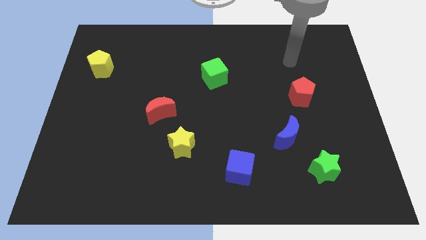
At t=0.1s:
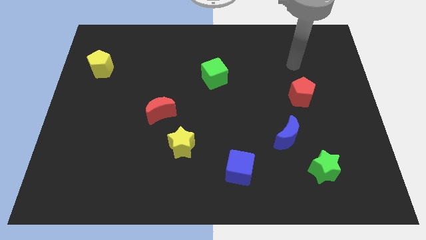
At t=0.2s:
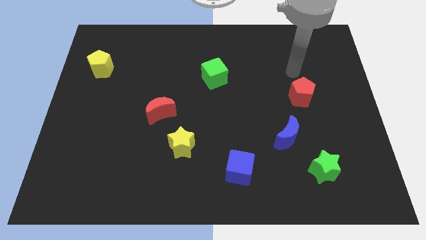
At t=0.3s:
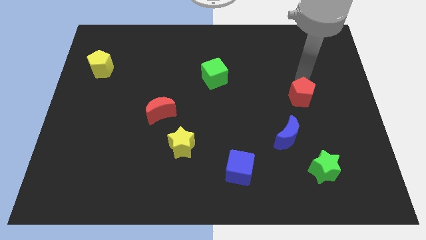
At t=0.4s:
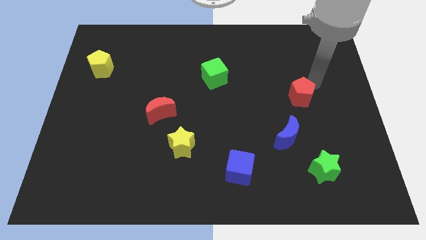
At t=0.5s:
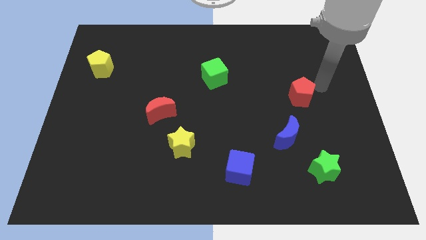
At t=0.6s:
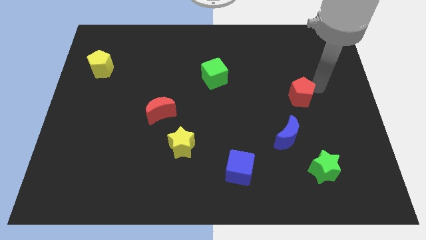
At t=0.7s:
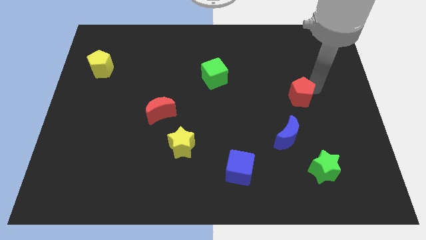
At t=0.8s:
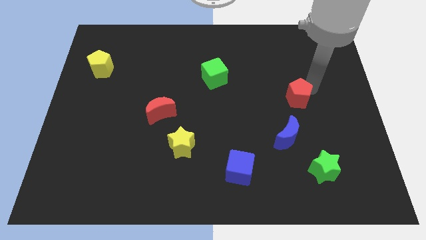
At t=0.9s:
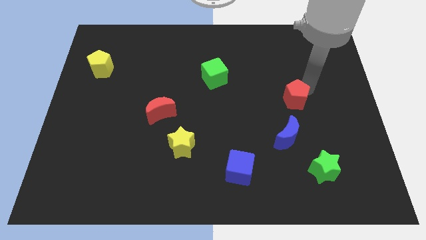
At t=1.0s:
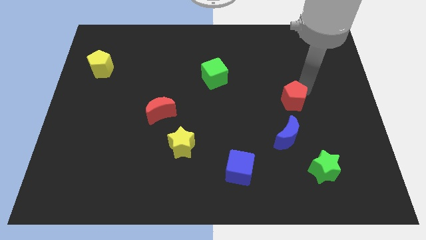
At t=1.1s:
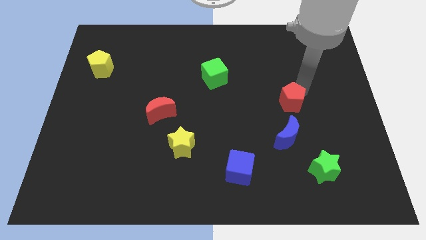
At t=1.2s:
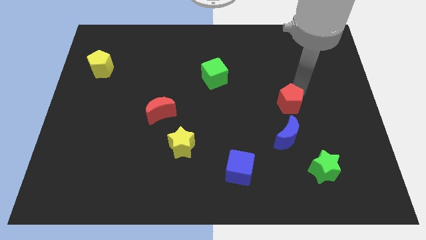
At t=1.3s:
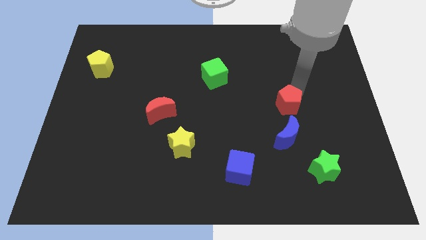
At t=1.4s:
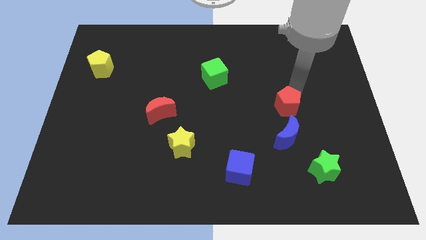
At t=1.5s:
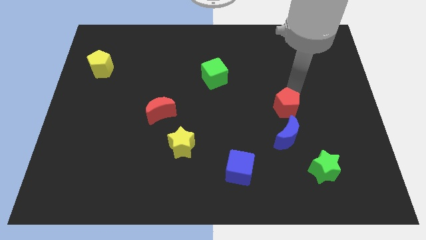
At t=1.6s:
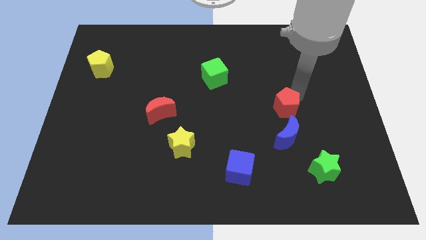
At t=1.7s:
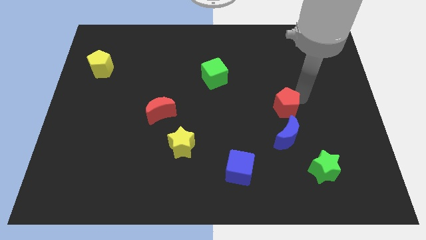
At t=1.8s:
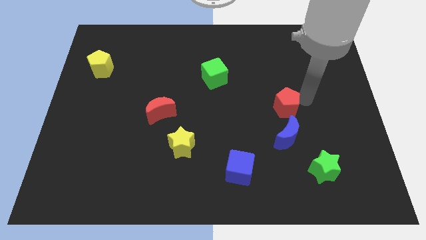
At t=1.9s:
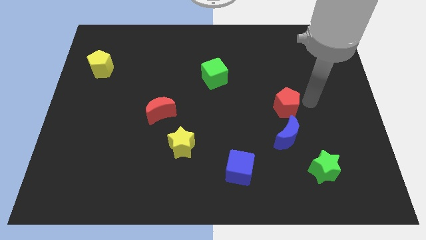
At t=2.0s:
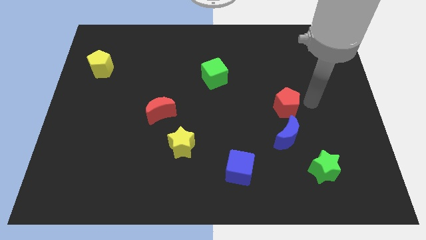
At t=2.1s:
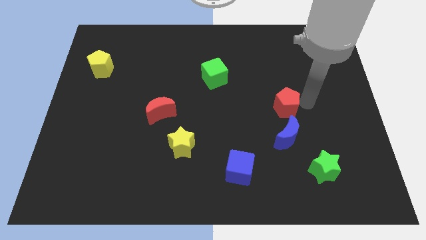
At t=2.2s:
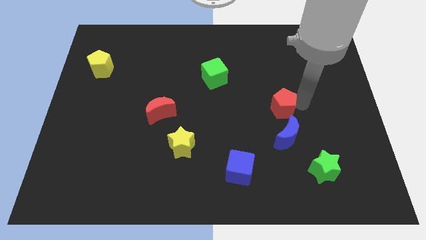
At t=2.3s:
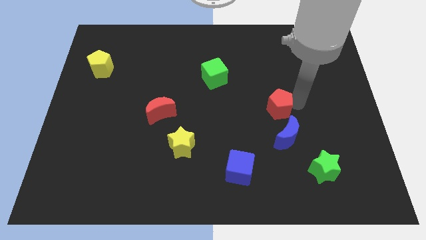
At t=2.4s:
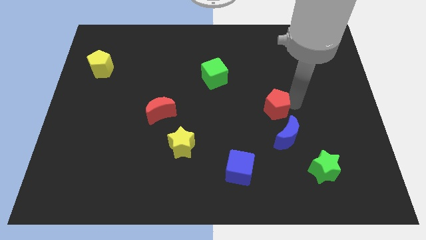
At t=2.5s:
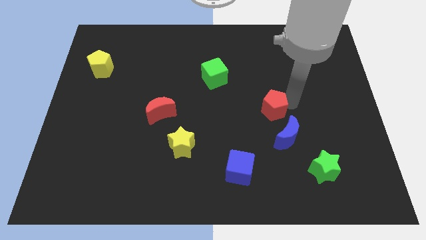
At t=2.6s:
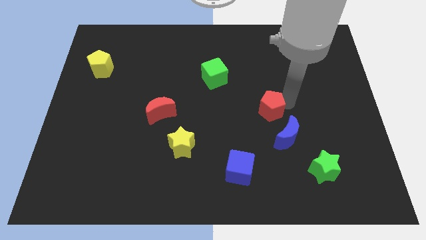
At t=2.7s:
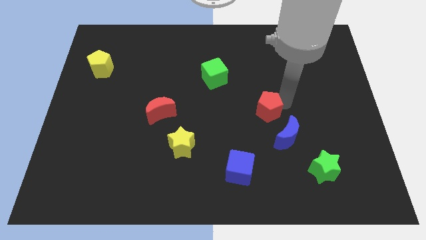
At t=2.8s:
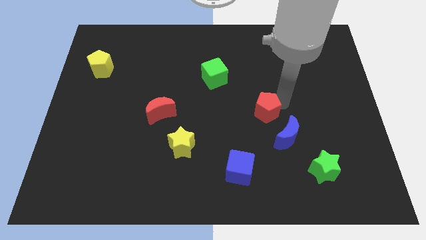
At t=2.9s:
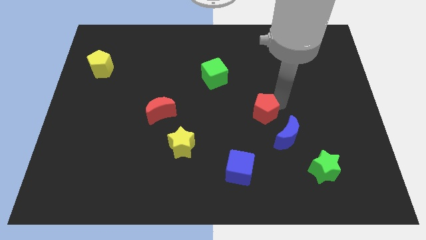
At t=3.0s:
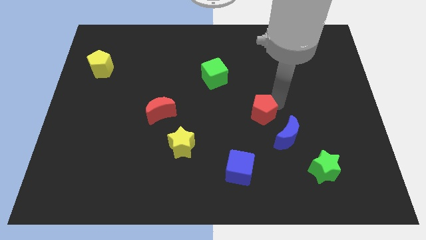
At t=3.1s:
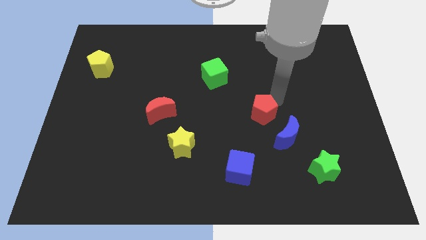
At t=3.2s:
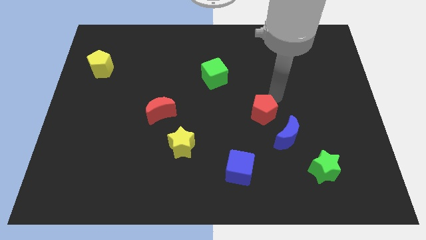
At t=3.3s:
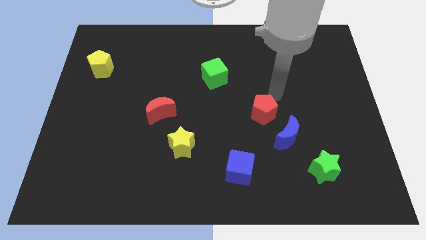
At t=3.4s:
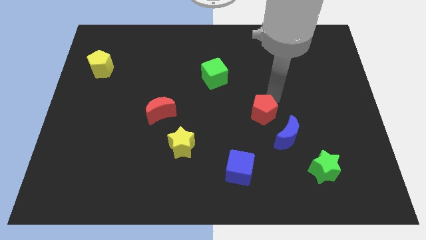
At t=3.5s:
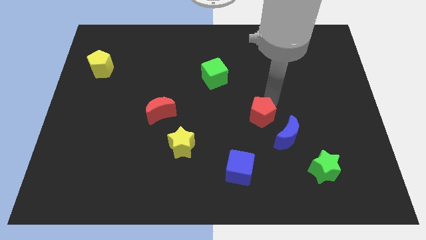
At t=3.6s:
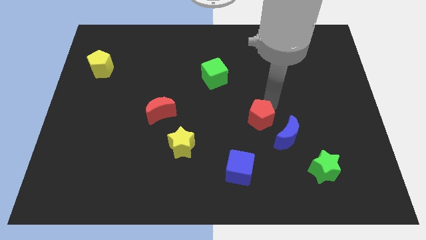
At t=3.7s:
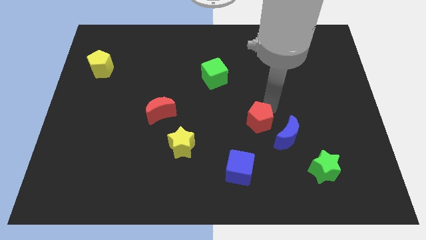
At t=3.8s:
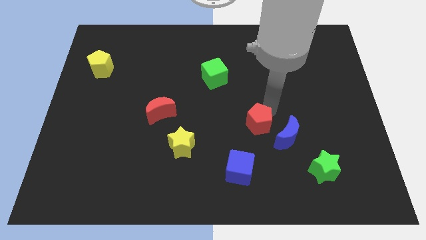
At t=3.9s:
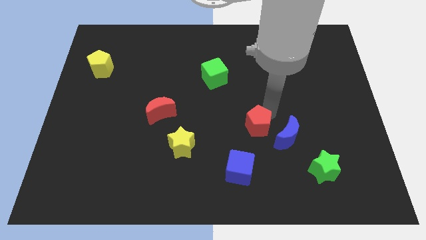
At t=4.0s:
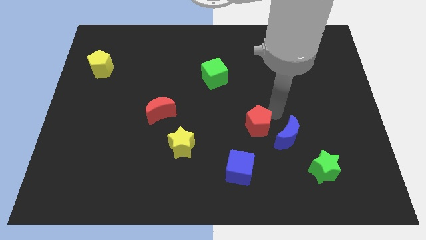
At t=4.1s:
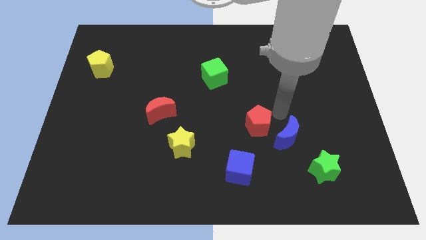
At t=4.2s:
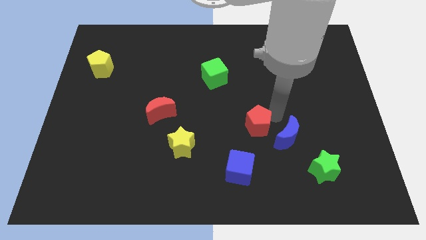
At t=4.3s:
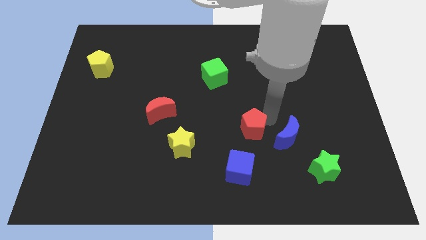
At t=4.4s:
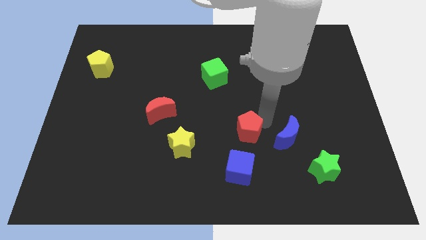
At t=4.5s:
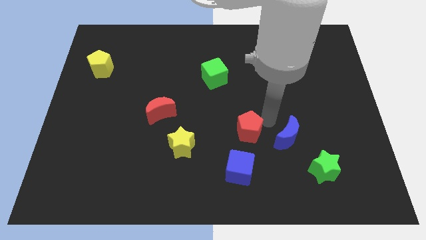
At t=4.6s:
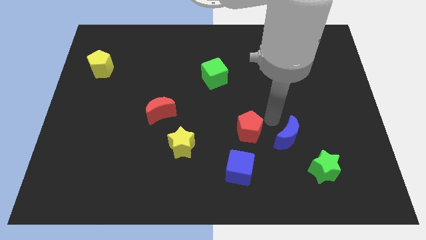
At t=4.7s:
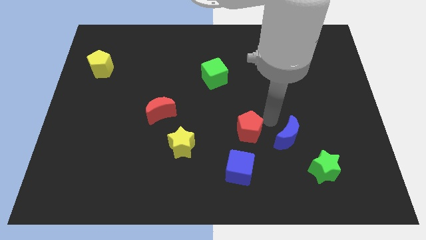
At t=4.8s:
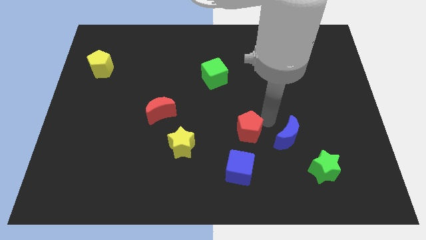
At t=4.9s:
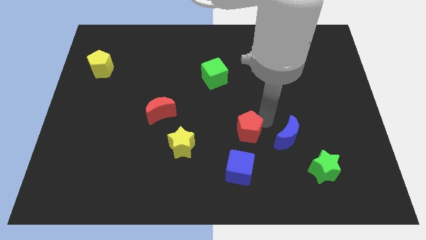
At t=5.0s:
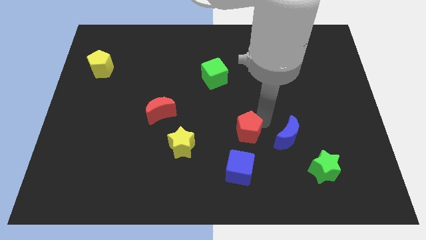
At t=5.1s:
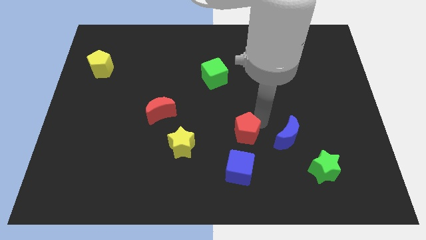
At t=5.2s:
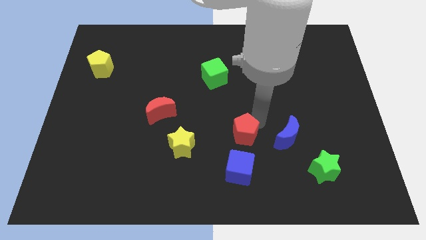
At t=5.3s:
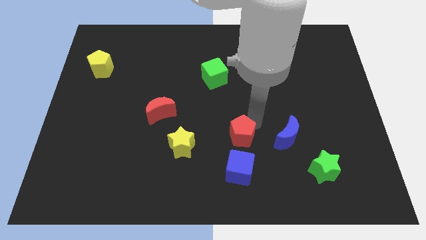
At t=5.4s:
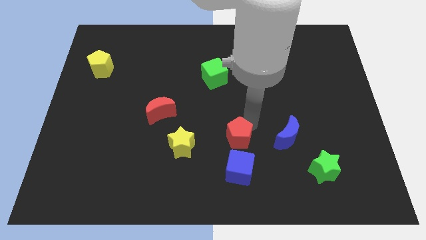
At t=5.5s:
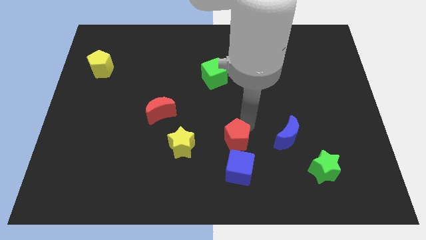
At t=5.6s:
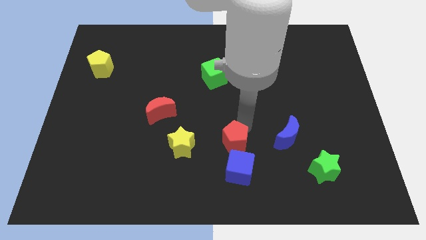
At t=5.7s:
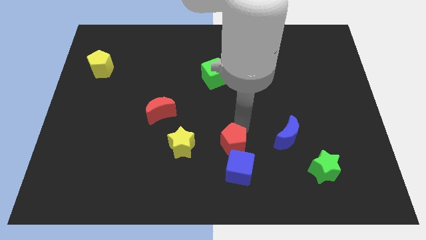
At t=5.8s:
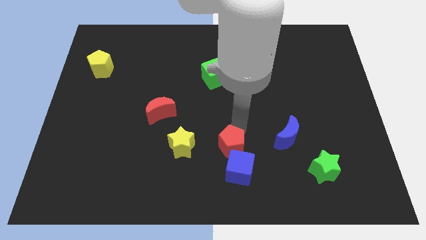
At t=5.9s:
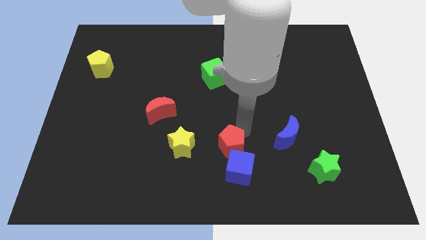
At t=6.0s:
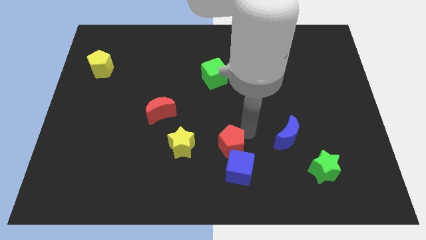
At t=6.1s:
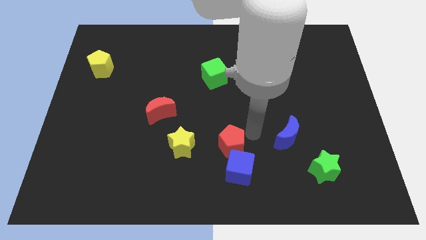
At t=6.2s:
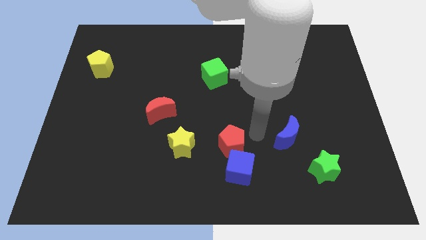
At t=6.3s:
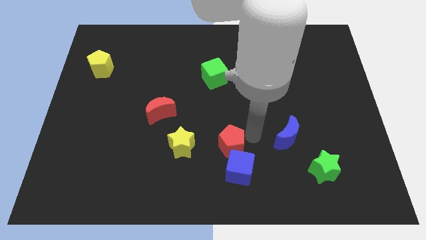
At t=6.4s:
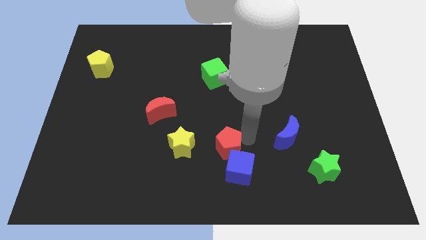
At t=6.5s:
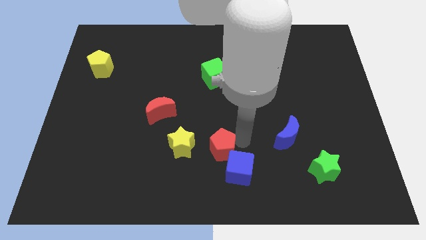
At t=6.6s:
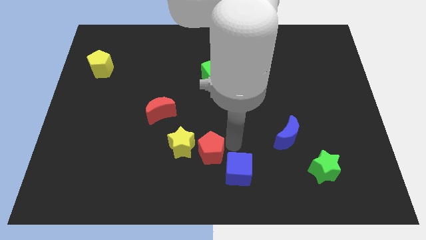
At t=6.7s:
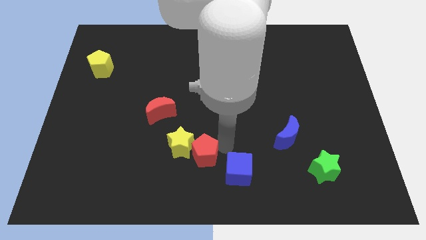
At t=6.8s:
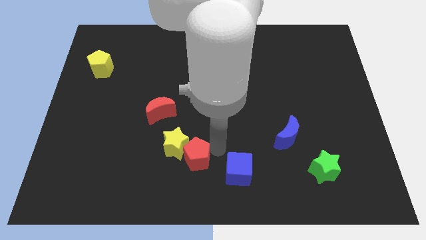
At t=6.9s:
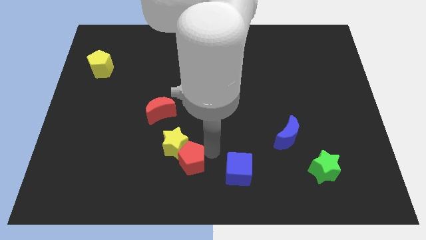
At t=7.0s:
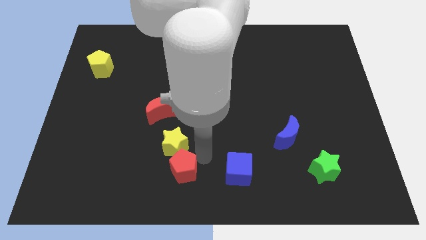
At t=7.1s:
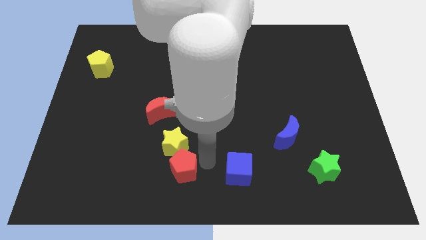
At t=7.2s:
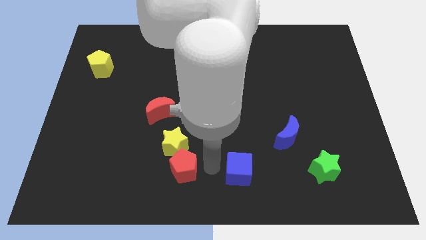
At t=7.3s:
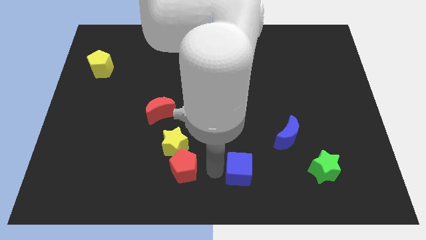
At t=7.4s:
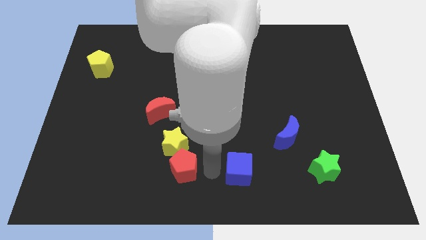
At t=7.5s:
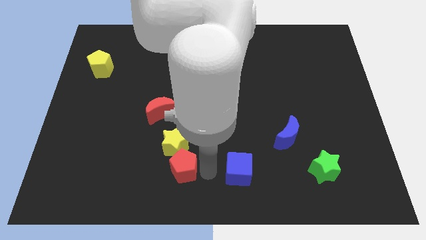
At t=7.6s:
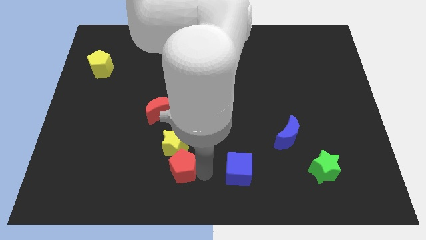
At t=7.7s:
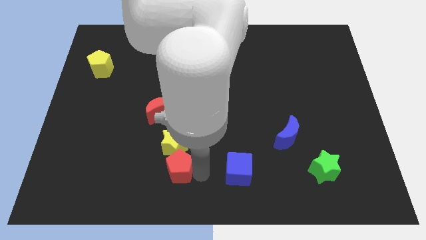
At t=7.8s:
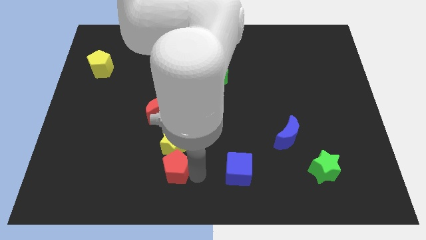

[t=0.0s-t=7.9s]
slide the red pentagon to the bottom left side of the yellow star
